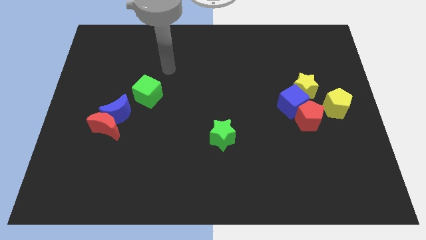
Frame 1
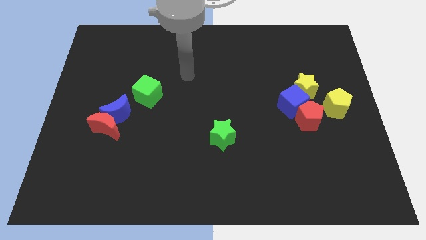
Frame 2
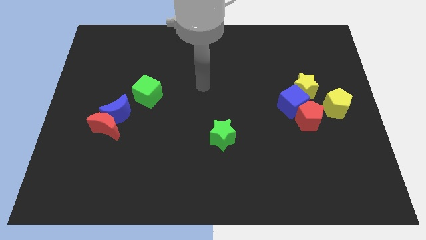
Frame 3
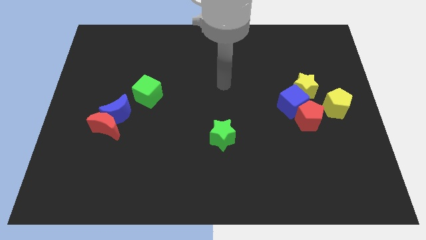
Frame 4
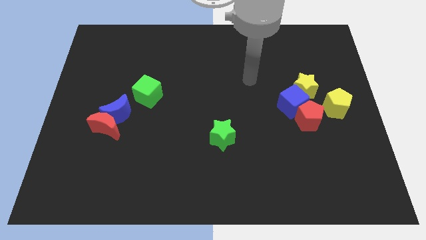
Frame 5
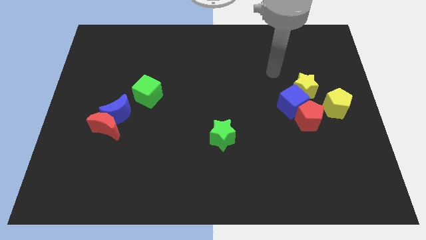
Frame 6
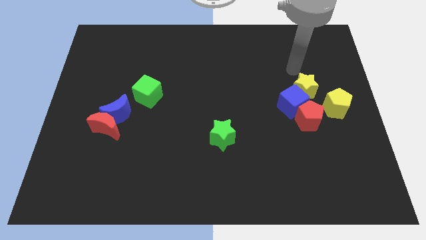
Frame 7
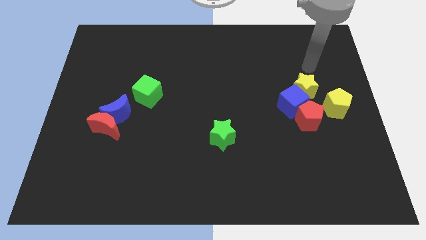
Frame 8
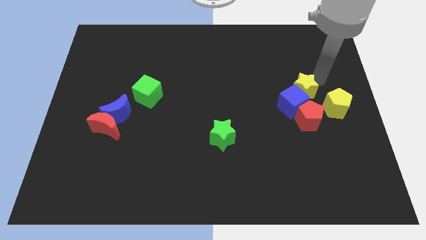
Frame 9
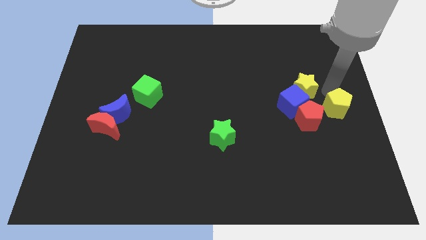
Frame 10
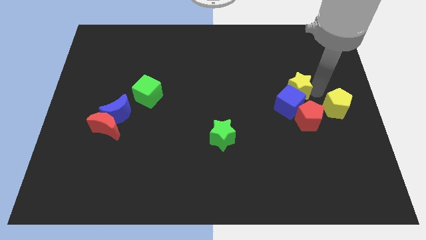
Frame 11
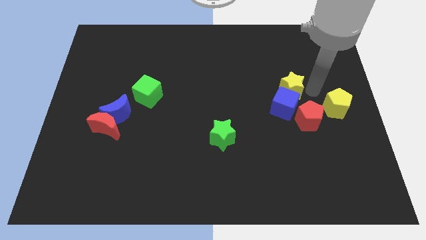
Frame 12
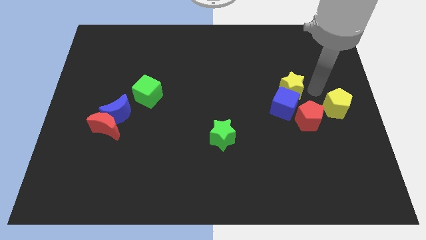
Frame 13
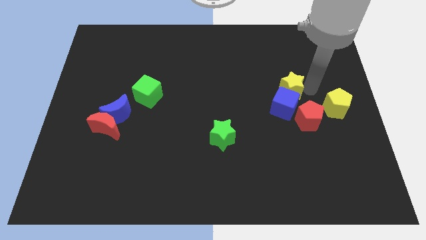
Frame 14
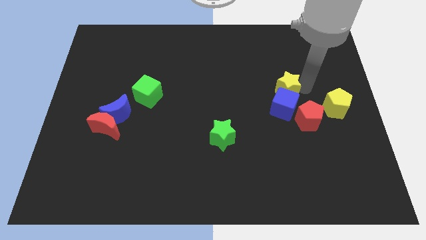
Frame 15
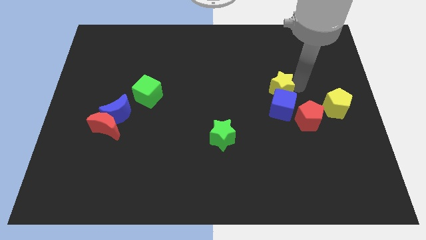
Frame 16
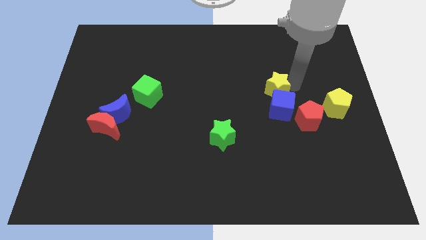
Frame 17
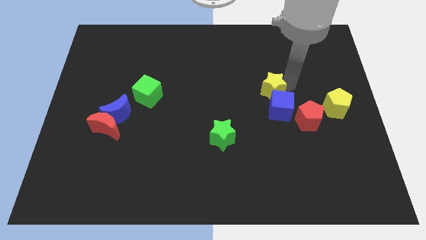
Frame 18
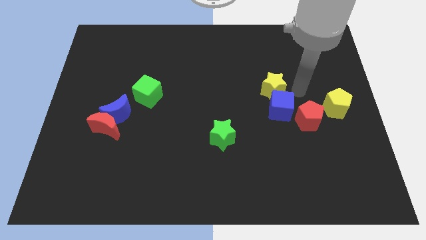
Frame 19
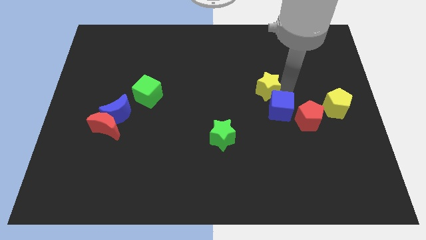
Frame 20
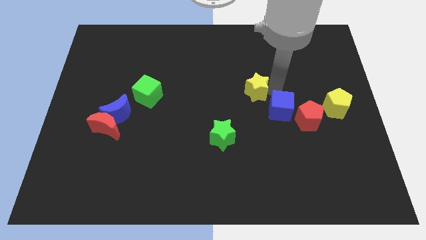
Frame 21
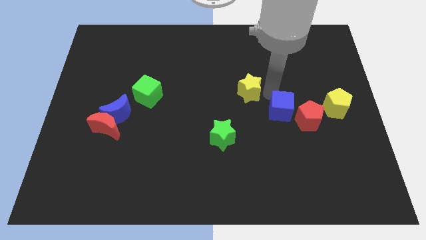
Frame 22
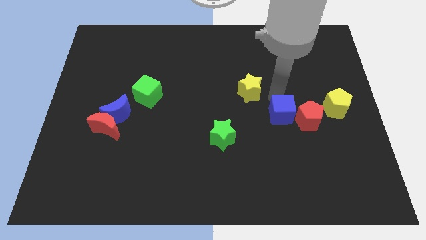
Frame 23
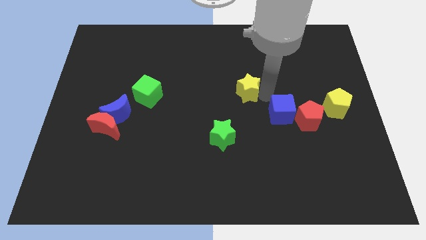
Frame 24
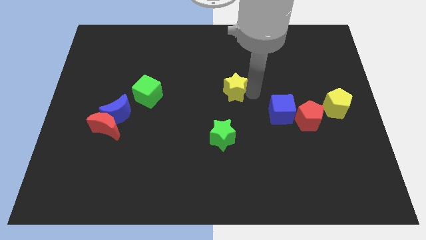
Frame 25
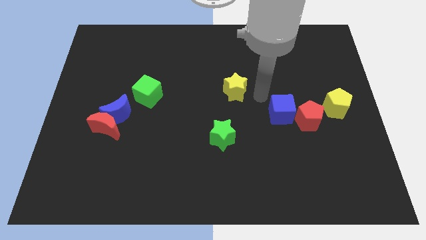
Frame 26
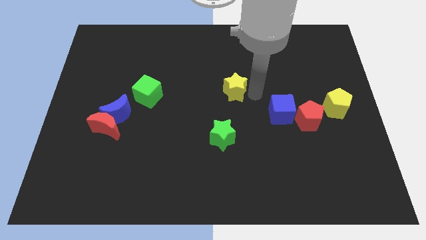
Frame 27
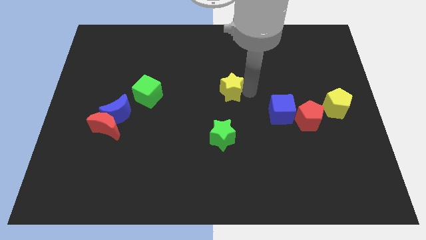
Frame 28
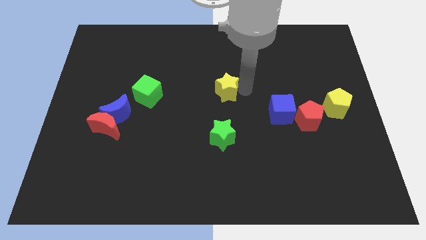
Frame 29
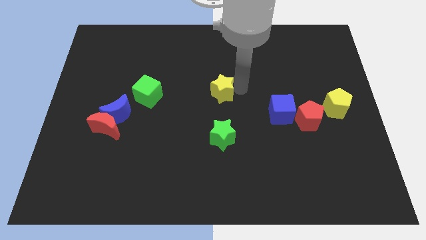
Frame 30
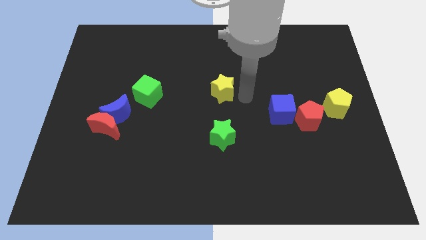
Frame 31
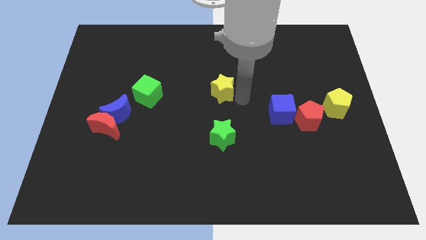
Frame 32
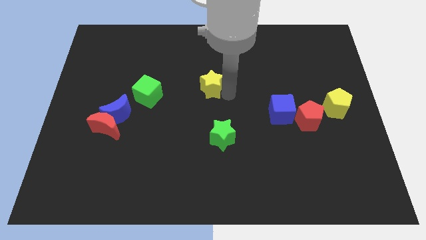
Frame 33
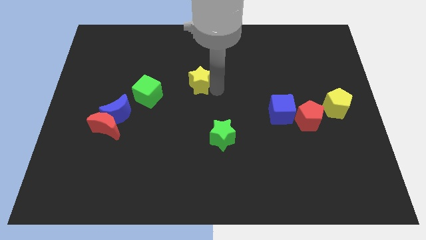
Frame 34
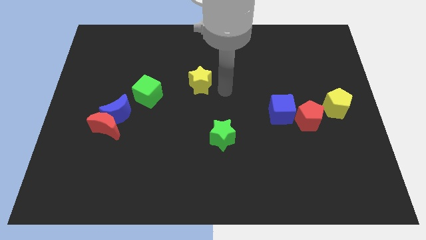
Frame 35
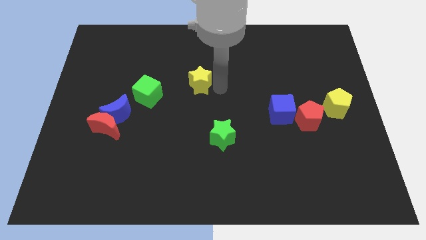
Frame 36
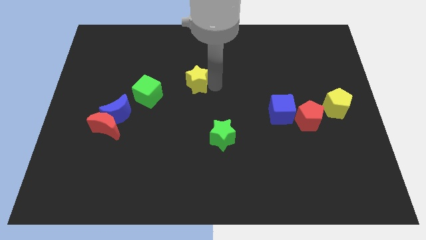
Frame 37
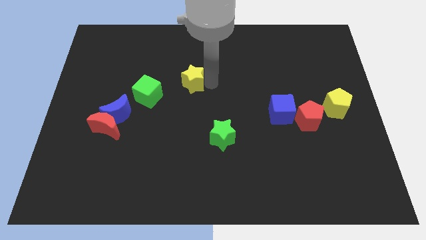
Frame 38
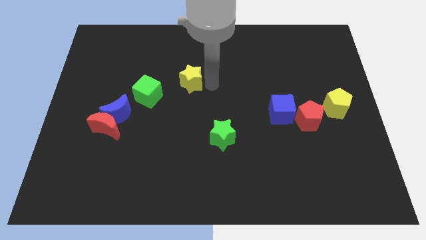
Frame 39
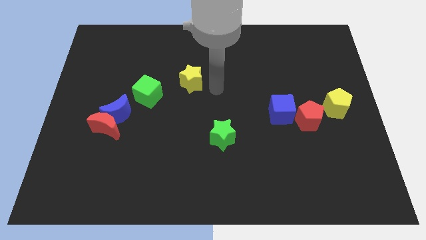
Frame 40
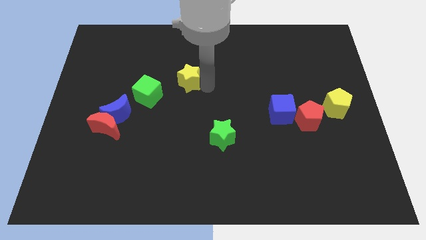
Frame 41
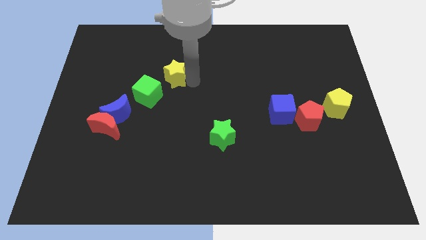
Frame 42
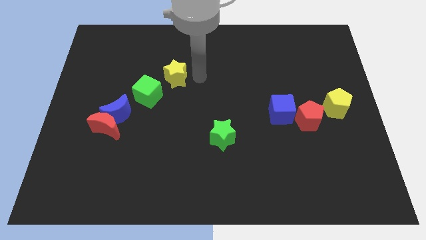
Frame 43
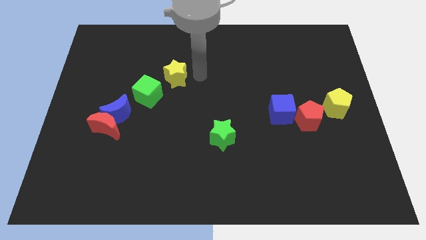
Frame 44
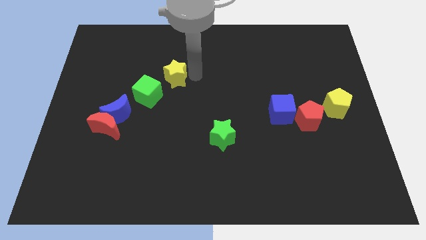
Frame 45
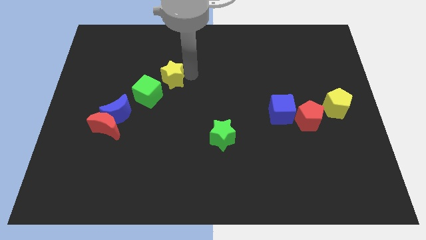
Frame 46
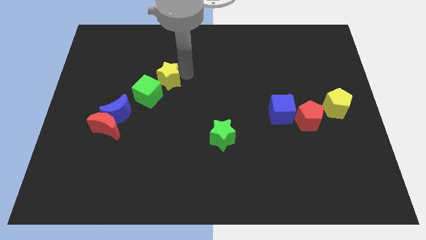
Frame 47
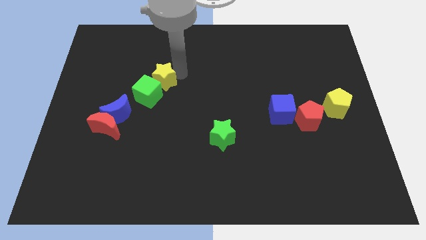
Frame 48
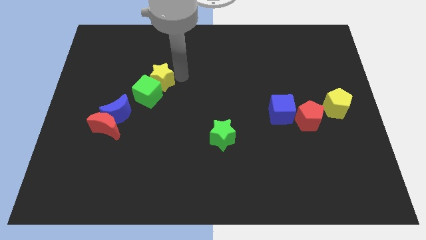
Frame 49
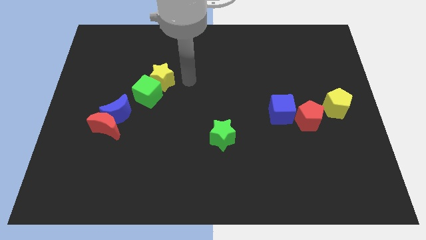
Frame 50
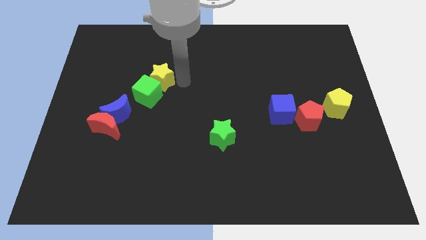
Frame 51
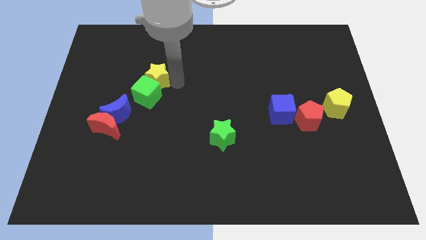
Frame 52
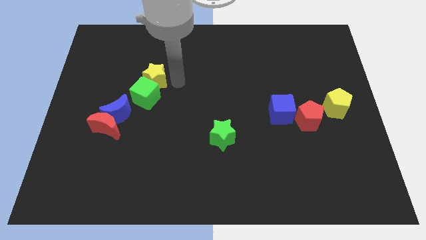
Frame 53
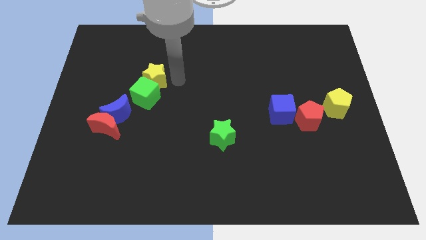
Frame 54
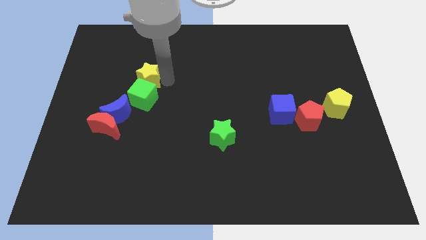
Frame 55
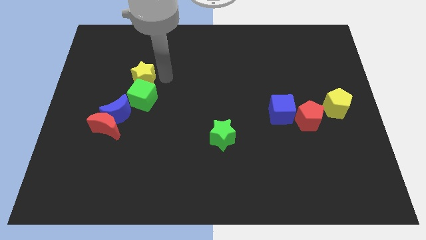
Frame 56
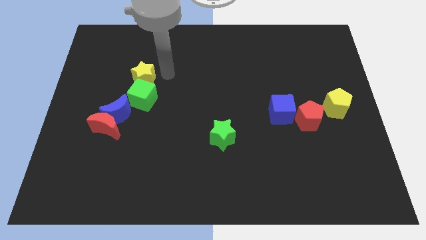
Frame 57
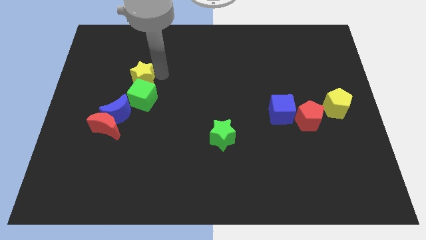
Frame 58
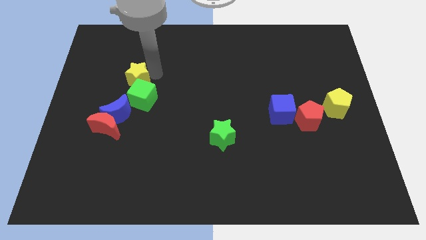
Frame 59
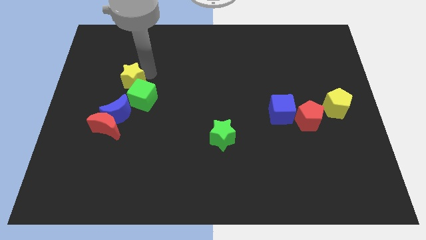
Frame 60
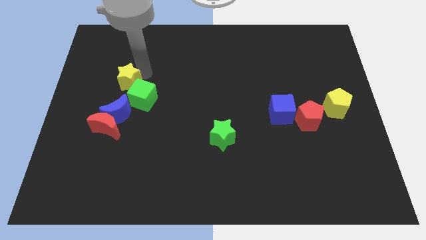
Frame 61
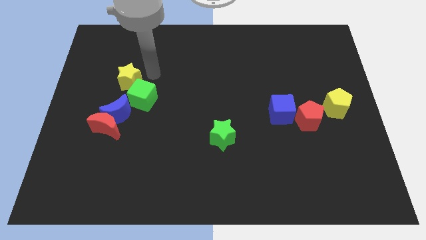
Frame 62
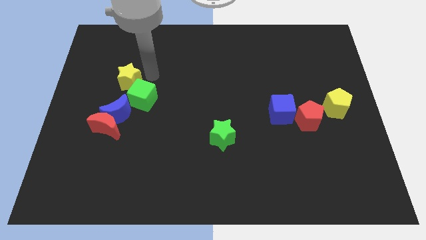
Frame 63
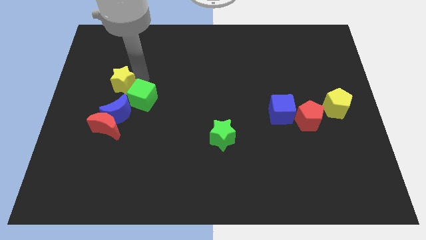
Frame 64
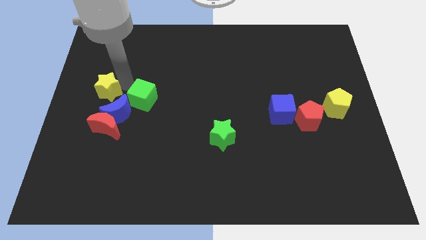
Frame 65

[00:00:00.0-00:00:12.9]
push the yellow star to the left side
